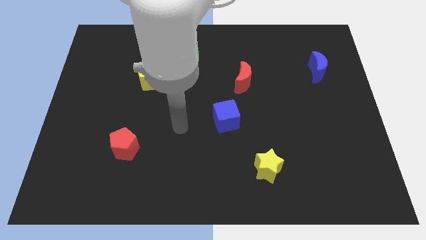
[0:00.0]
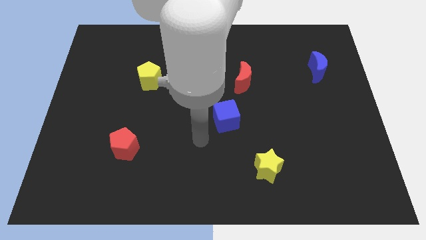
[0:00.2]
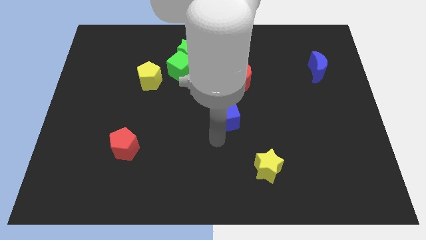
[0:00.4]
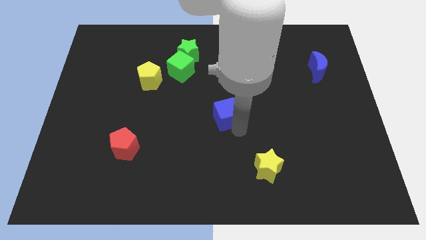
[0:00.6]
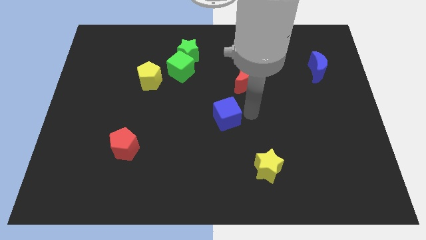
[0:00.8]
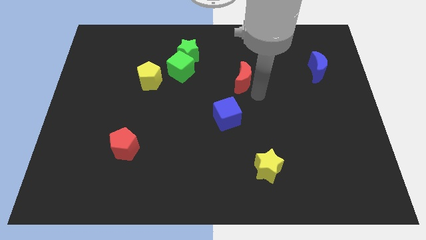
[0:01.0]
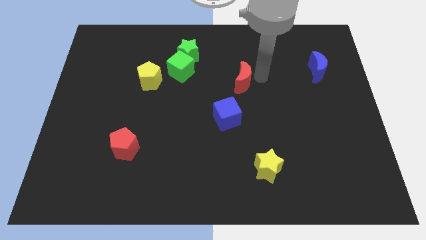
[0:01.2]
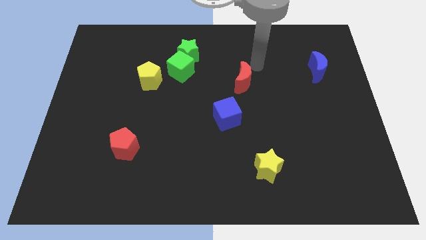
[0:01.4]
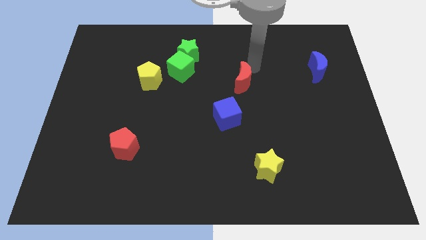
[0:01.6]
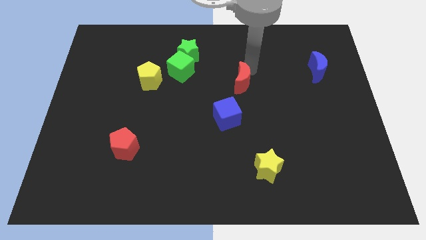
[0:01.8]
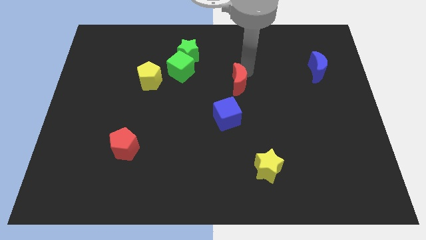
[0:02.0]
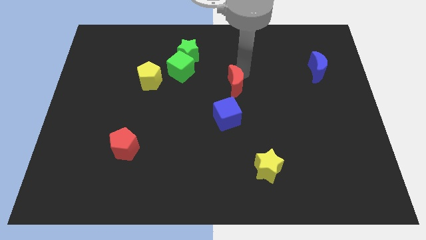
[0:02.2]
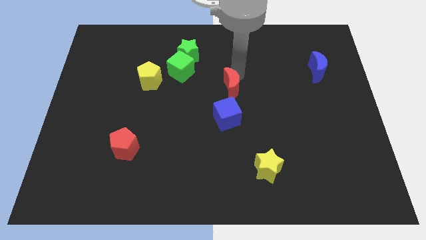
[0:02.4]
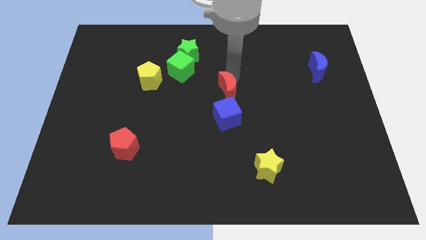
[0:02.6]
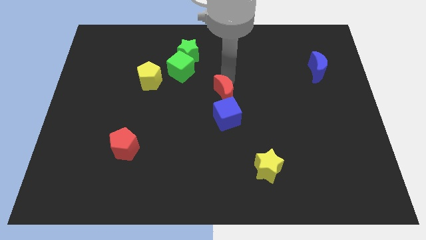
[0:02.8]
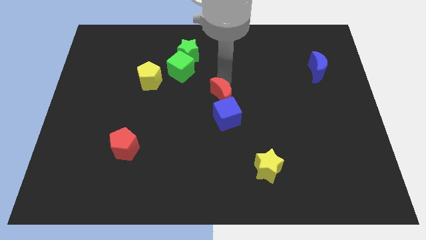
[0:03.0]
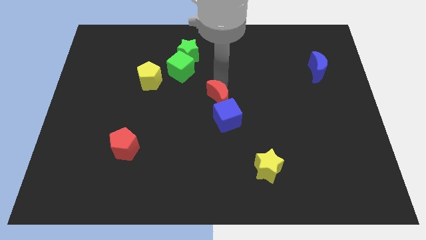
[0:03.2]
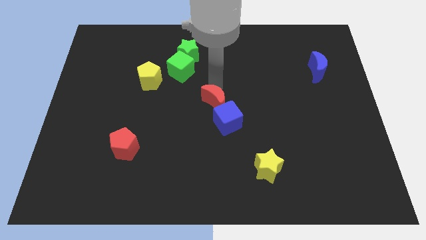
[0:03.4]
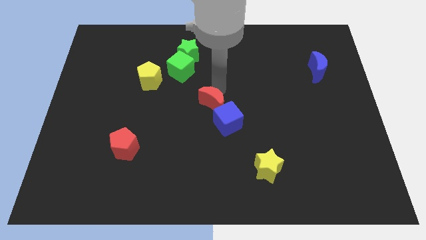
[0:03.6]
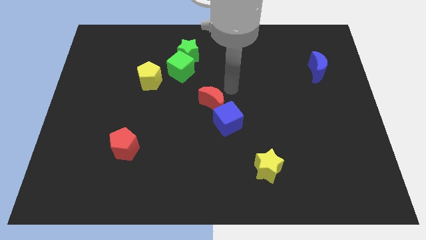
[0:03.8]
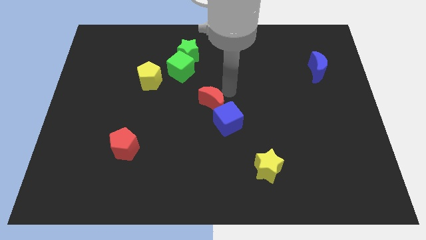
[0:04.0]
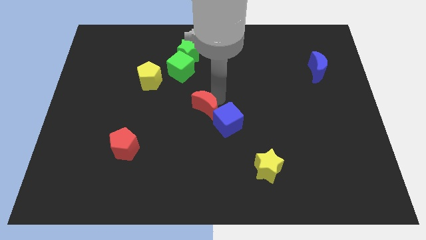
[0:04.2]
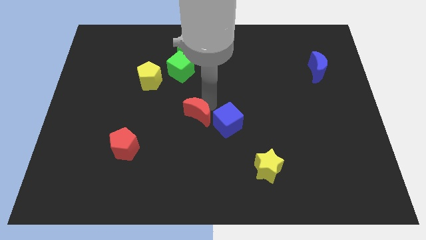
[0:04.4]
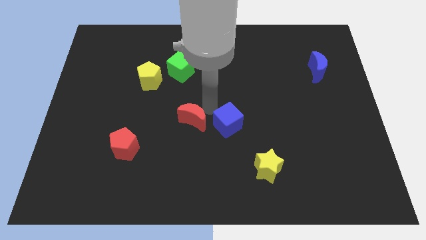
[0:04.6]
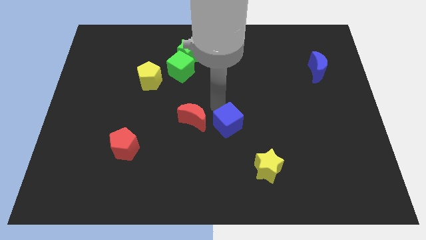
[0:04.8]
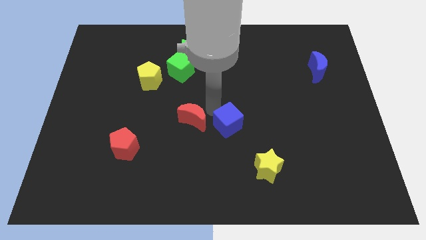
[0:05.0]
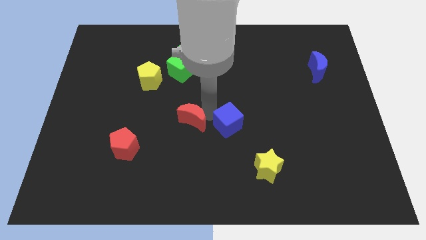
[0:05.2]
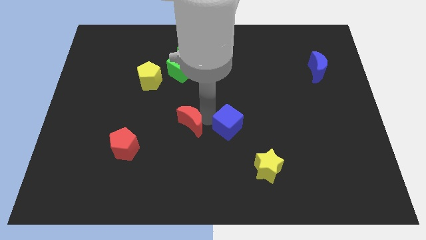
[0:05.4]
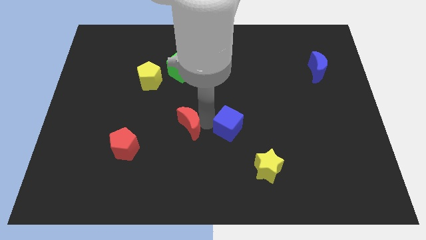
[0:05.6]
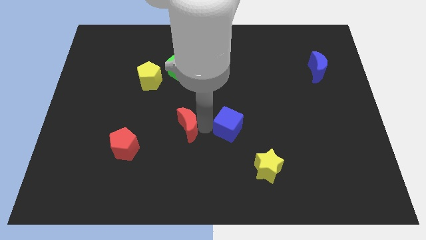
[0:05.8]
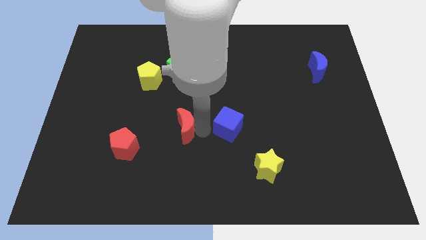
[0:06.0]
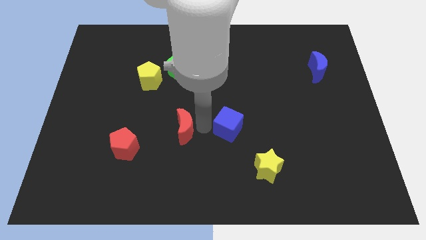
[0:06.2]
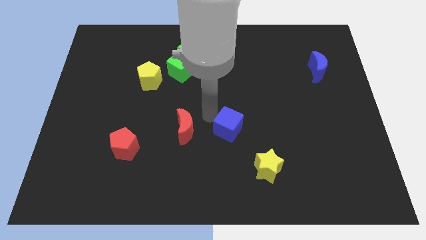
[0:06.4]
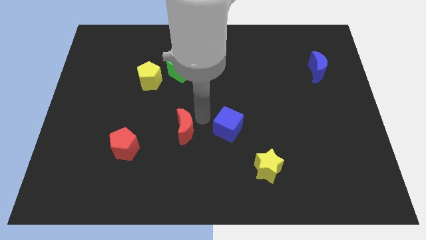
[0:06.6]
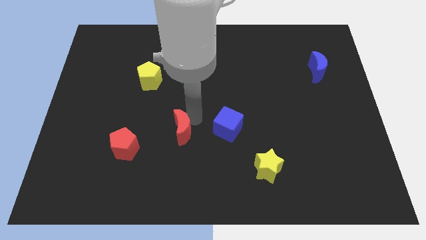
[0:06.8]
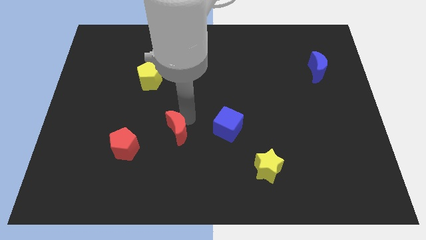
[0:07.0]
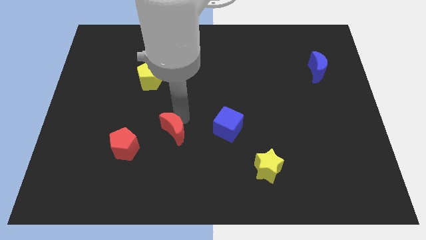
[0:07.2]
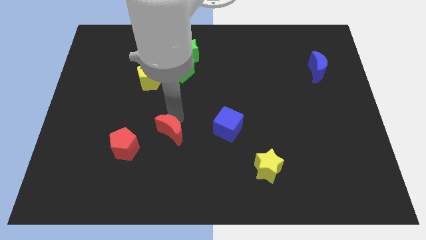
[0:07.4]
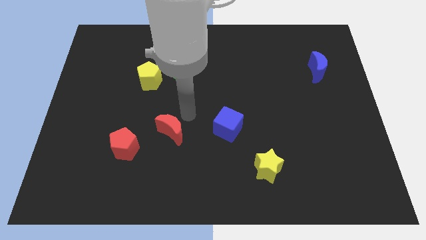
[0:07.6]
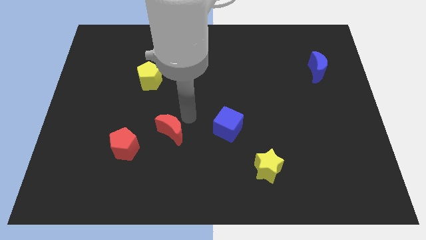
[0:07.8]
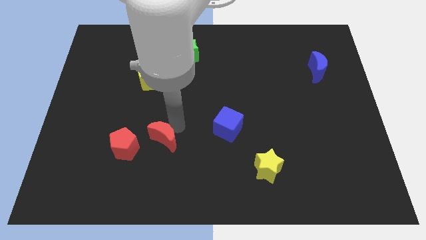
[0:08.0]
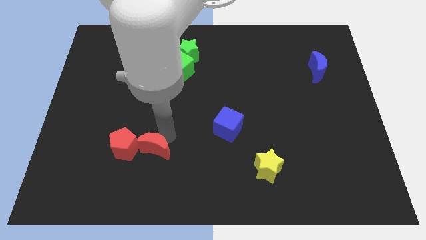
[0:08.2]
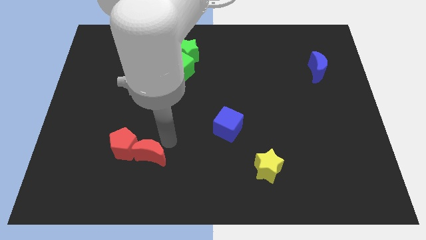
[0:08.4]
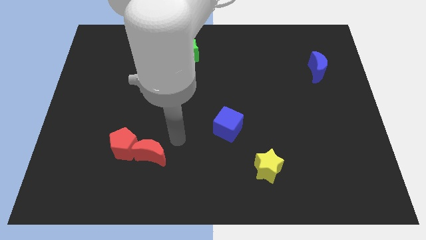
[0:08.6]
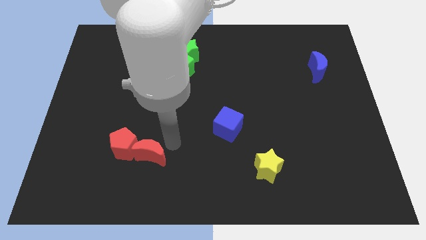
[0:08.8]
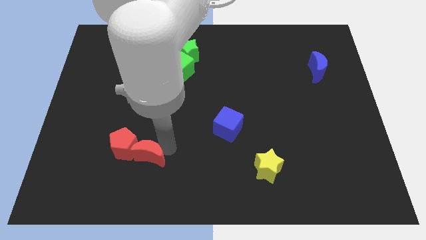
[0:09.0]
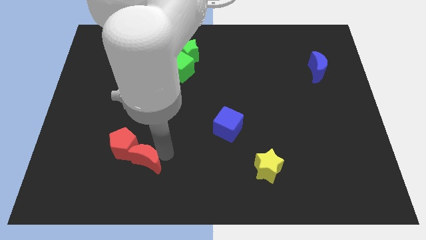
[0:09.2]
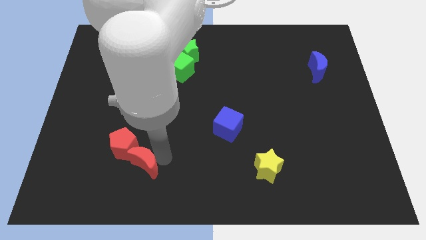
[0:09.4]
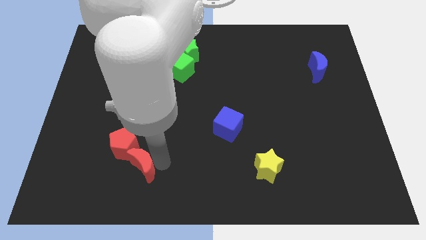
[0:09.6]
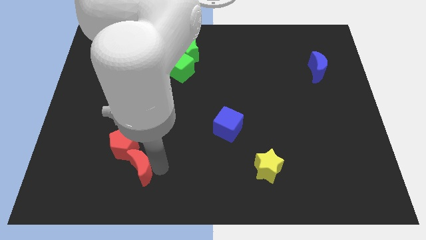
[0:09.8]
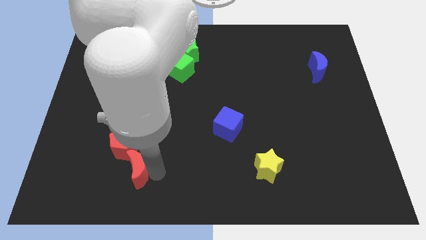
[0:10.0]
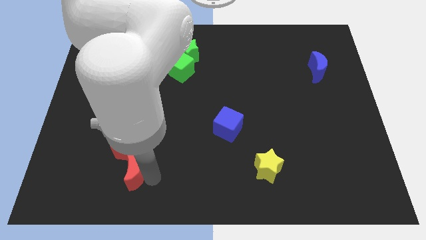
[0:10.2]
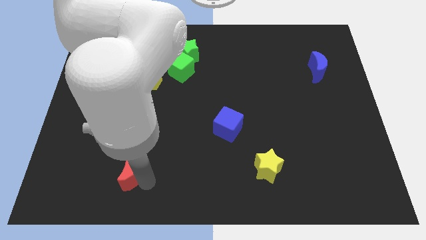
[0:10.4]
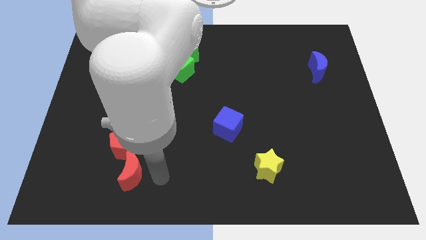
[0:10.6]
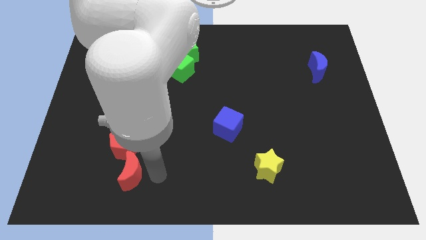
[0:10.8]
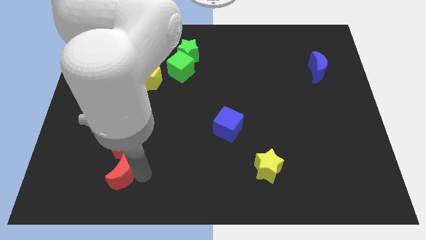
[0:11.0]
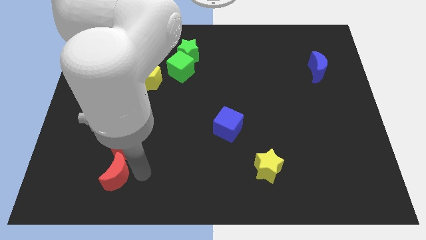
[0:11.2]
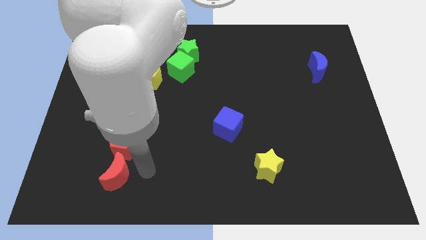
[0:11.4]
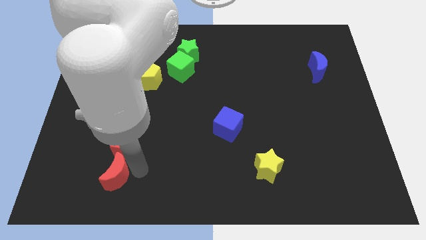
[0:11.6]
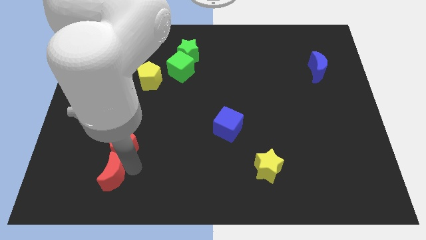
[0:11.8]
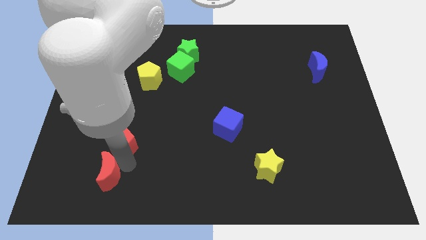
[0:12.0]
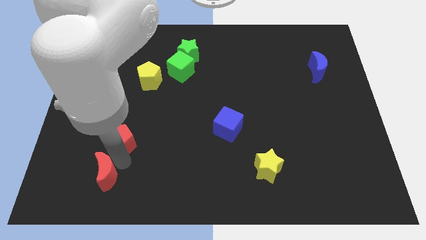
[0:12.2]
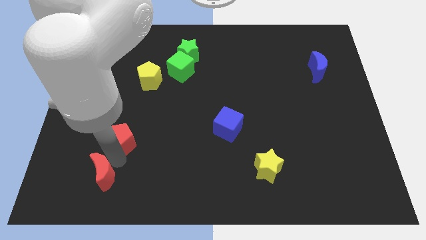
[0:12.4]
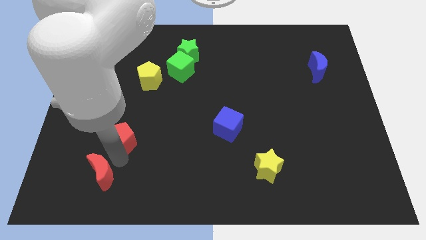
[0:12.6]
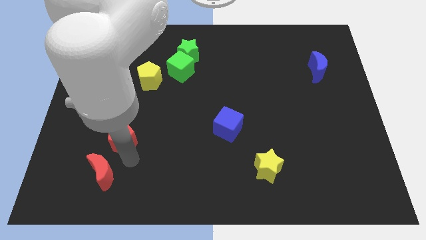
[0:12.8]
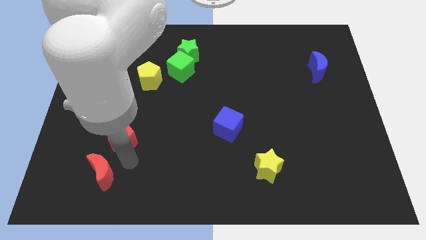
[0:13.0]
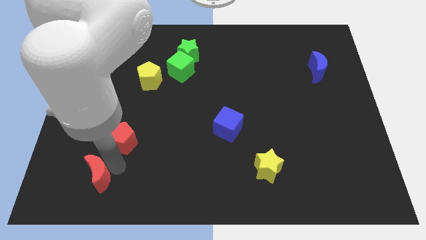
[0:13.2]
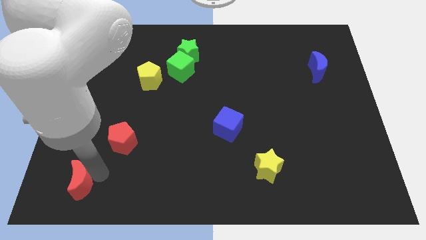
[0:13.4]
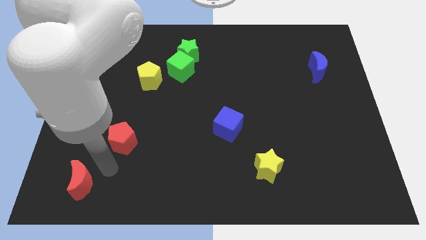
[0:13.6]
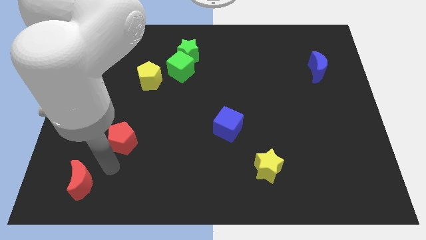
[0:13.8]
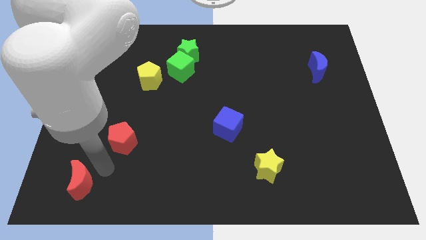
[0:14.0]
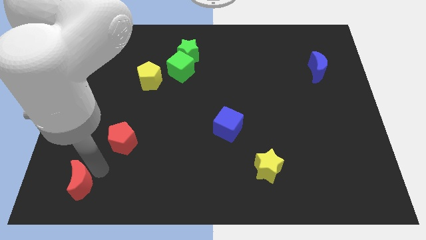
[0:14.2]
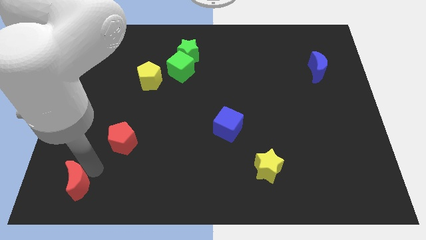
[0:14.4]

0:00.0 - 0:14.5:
put the red moon to the bottom left of the board

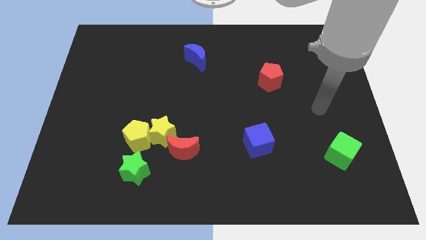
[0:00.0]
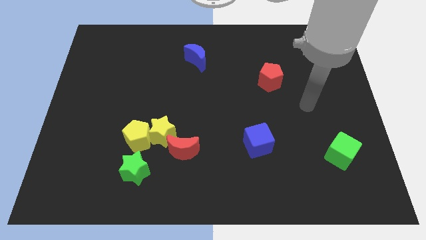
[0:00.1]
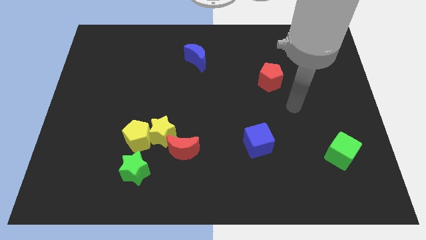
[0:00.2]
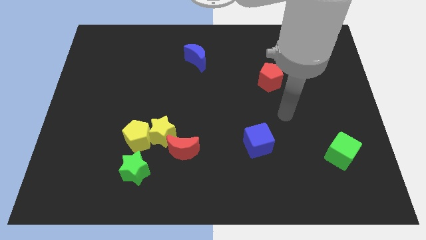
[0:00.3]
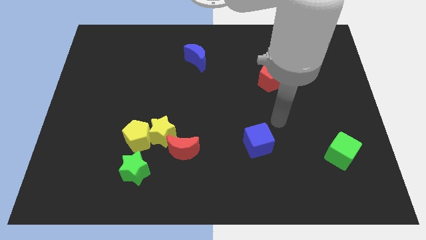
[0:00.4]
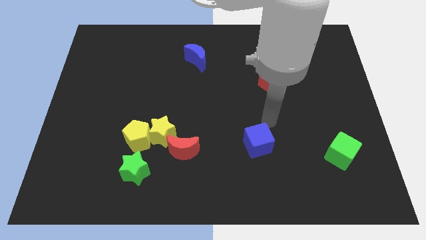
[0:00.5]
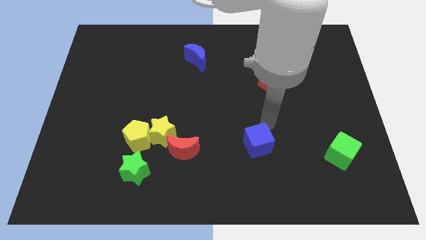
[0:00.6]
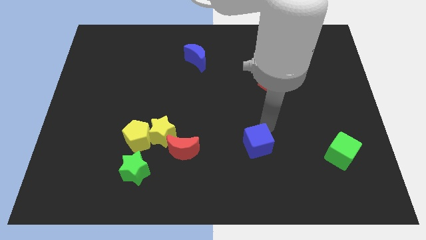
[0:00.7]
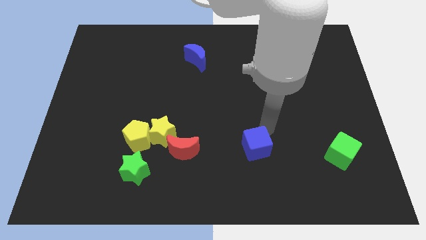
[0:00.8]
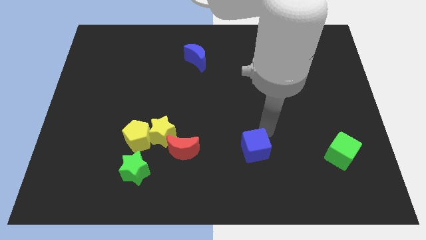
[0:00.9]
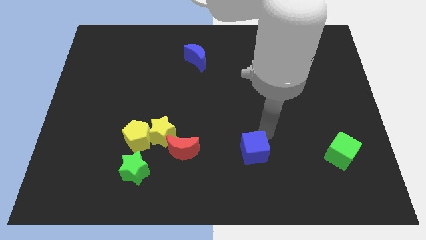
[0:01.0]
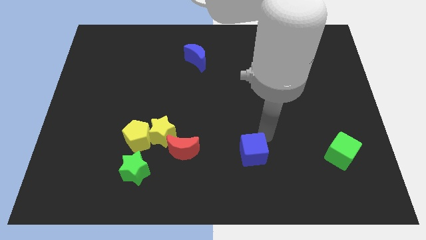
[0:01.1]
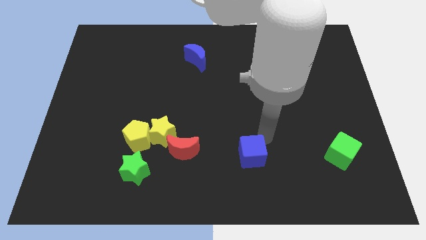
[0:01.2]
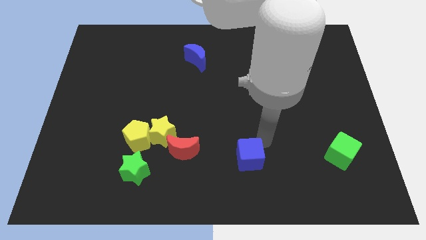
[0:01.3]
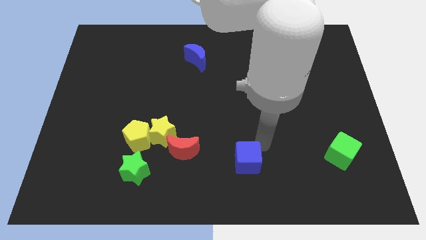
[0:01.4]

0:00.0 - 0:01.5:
move the blue cube to the bottom
